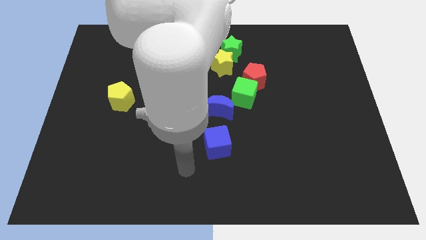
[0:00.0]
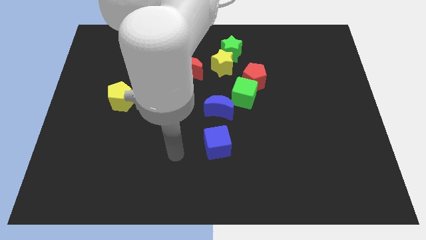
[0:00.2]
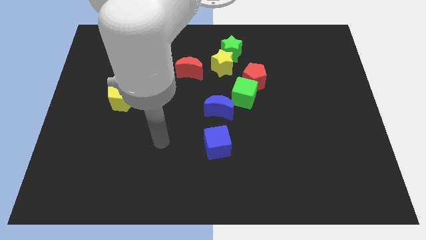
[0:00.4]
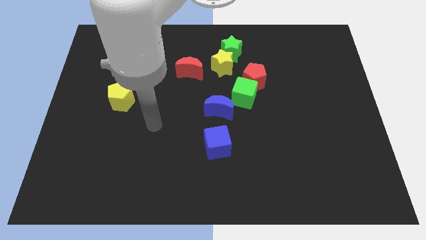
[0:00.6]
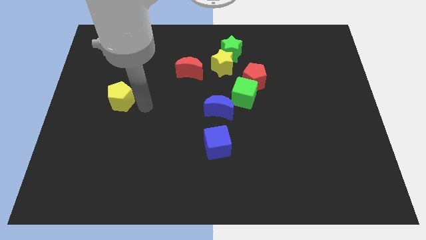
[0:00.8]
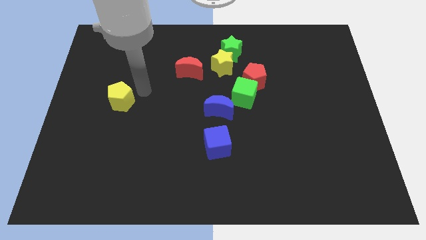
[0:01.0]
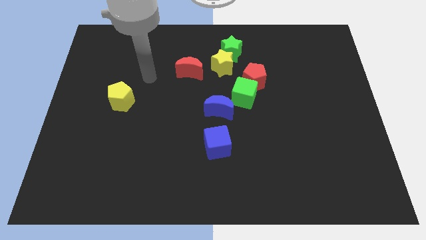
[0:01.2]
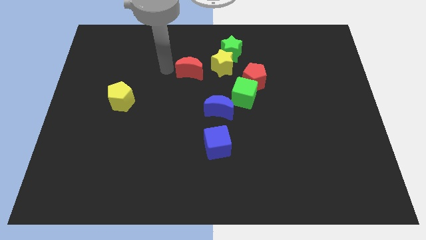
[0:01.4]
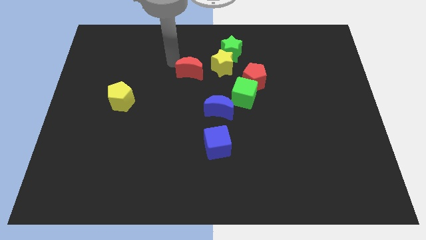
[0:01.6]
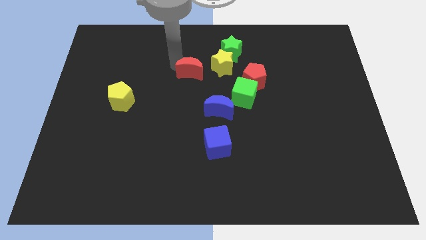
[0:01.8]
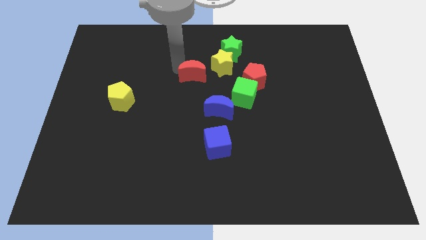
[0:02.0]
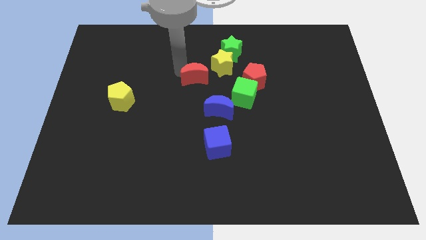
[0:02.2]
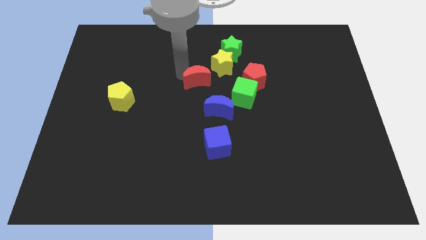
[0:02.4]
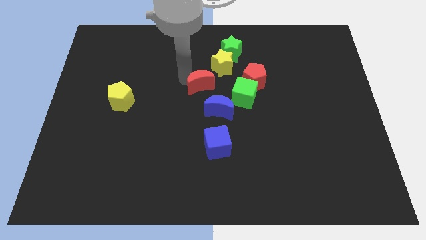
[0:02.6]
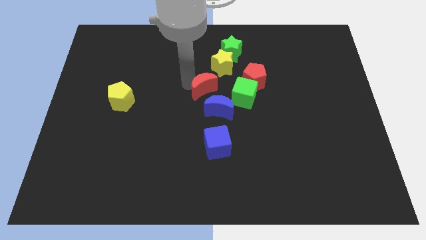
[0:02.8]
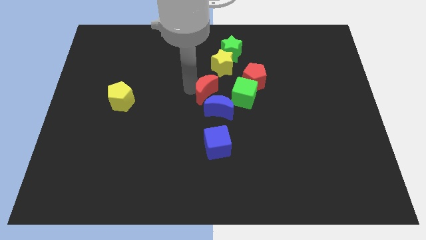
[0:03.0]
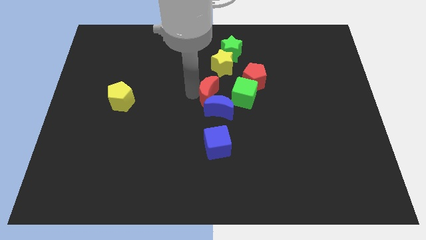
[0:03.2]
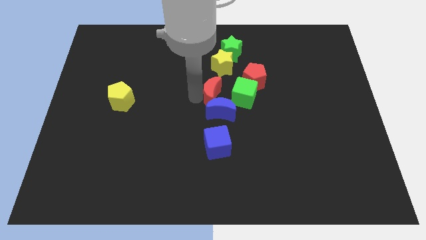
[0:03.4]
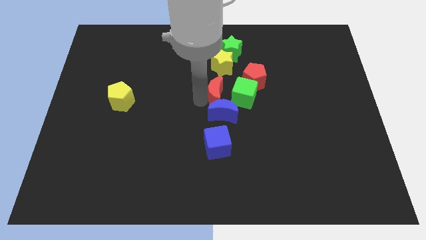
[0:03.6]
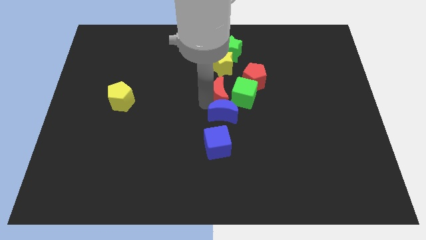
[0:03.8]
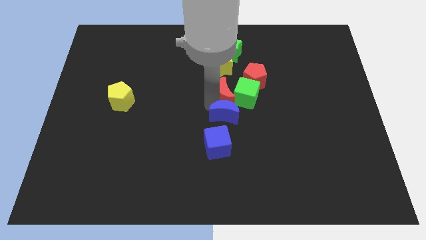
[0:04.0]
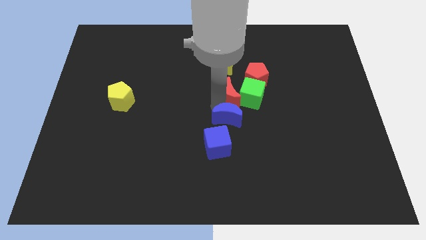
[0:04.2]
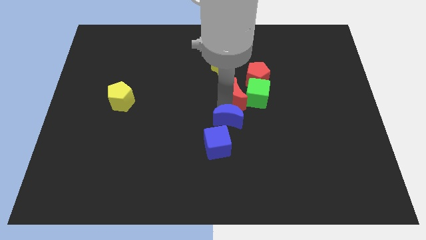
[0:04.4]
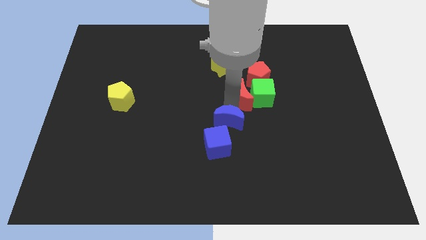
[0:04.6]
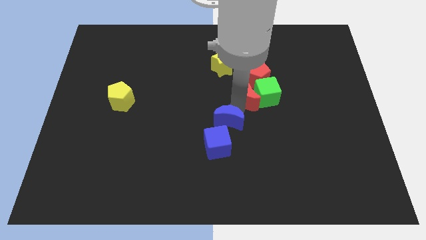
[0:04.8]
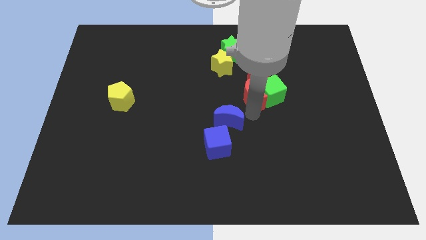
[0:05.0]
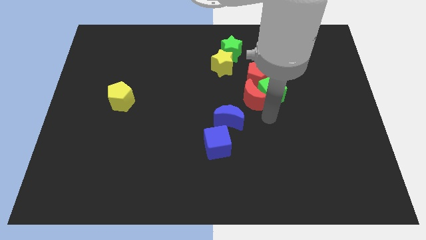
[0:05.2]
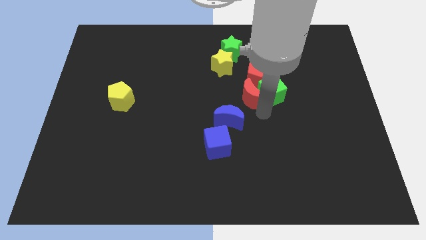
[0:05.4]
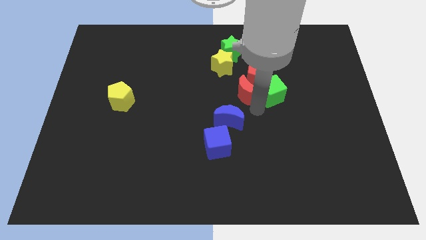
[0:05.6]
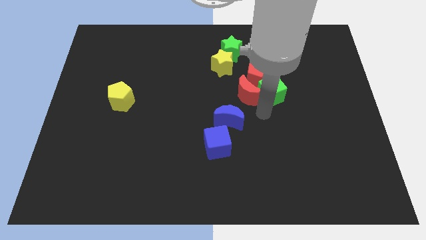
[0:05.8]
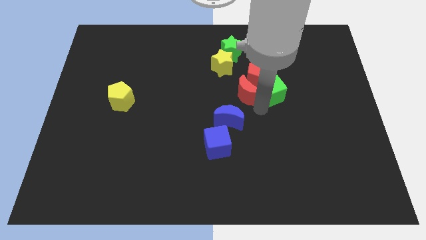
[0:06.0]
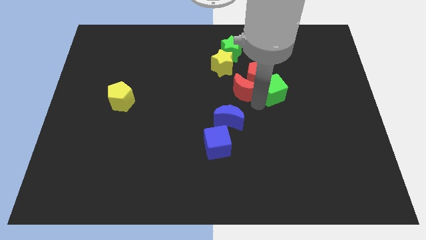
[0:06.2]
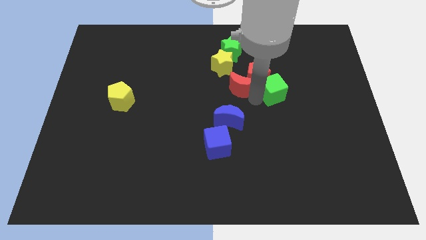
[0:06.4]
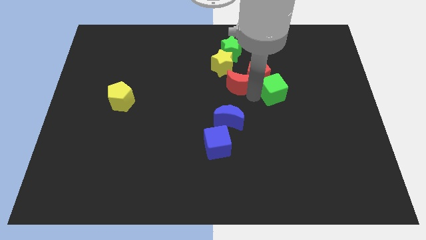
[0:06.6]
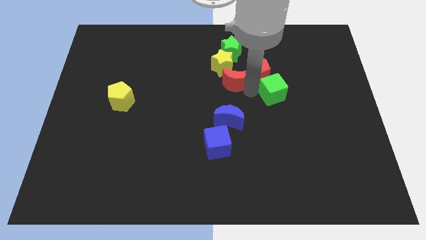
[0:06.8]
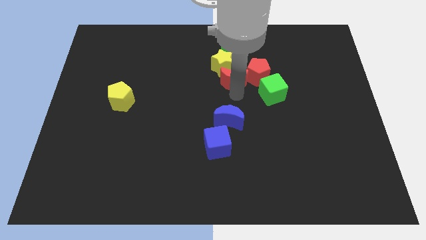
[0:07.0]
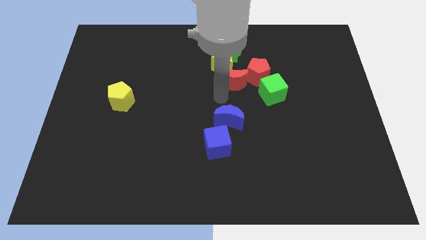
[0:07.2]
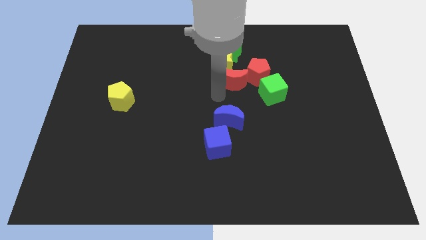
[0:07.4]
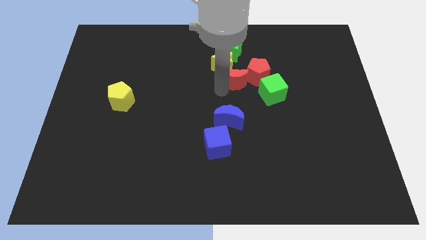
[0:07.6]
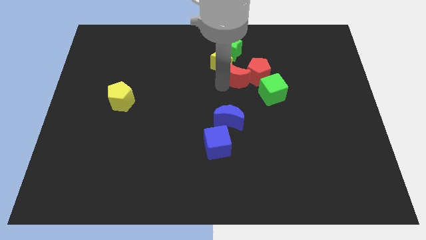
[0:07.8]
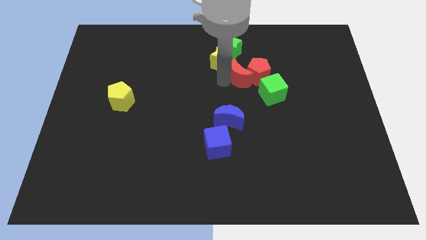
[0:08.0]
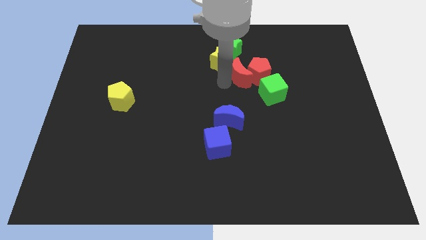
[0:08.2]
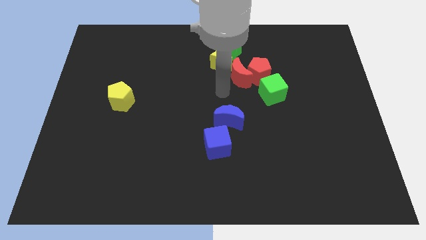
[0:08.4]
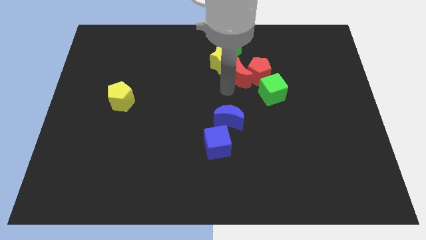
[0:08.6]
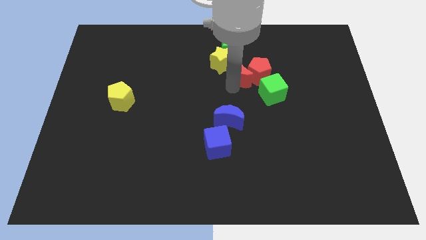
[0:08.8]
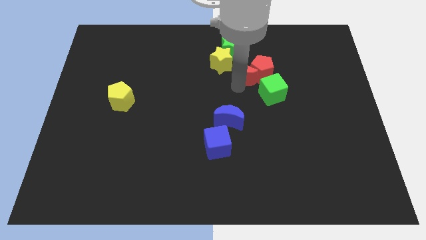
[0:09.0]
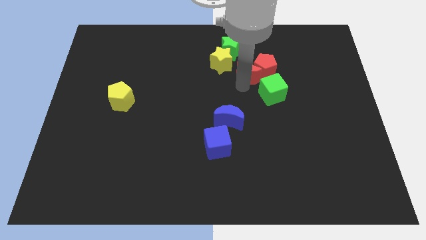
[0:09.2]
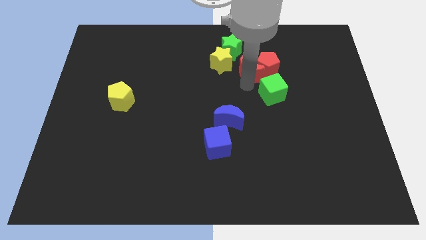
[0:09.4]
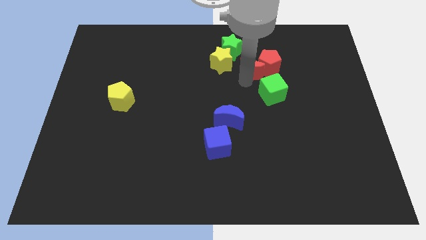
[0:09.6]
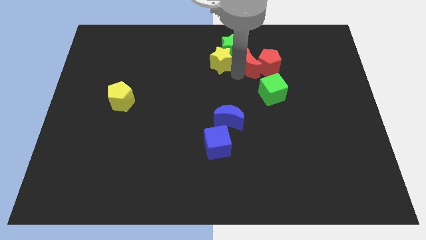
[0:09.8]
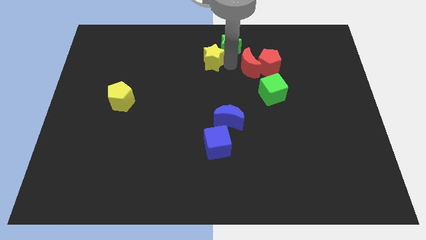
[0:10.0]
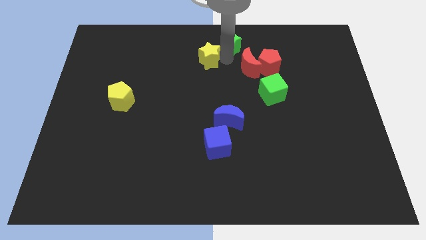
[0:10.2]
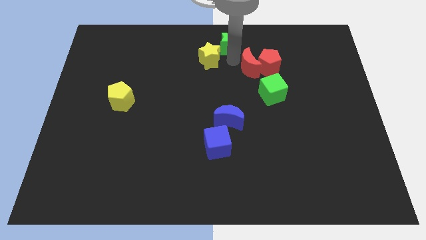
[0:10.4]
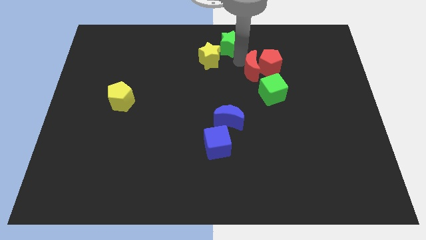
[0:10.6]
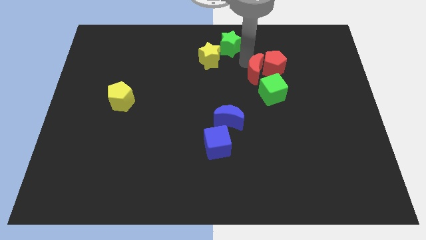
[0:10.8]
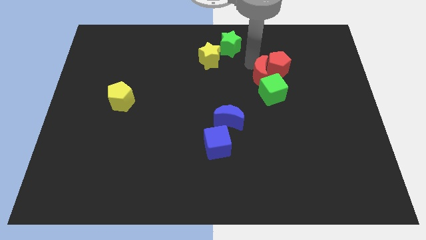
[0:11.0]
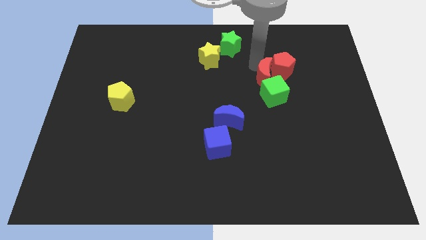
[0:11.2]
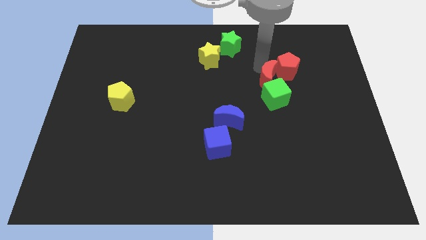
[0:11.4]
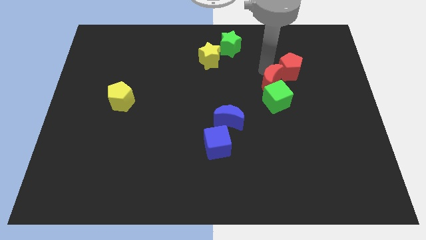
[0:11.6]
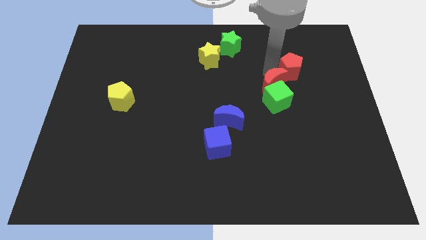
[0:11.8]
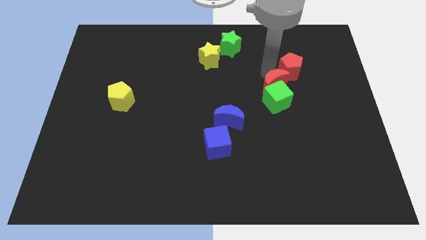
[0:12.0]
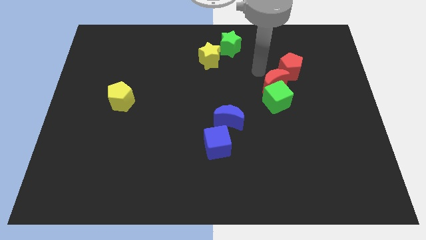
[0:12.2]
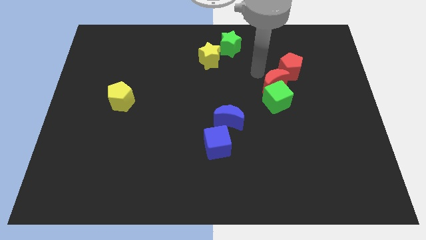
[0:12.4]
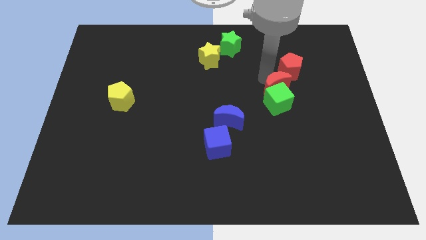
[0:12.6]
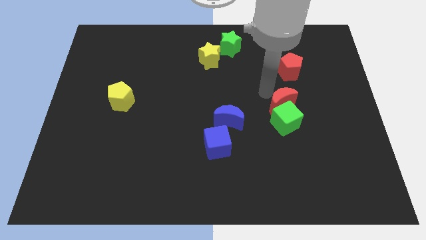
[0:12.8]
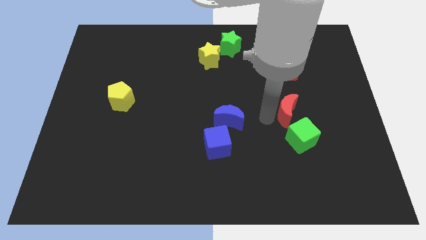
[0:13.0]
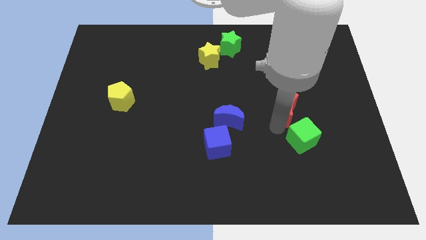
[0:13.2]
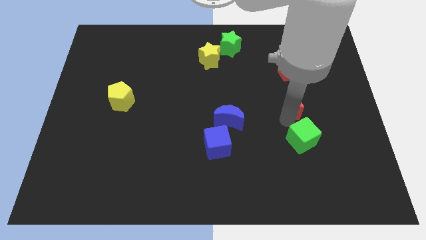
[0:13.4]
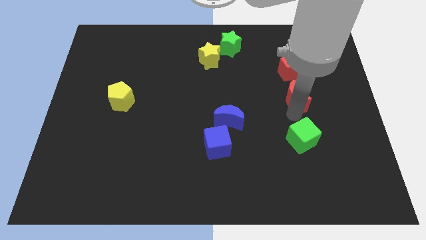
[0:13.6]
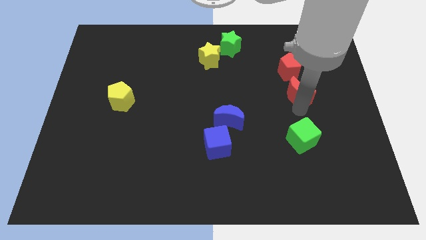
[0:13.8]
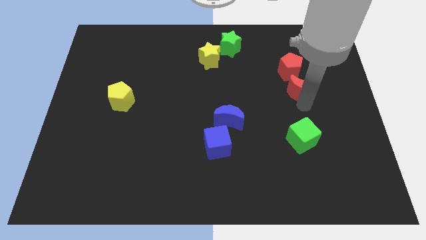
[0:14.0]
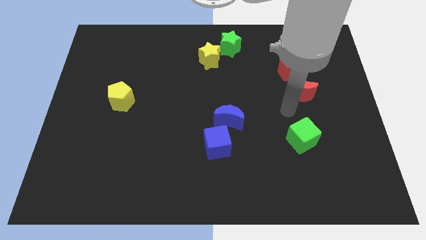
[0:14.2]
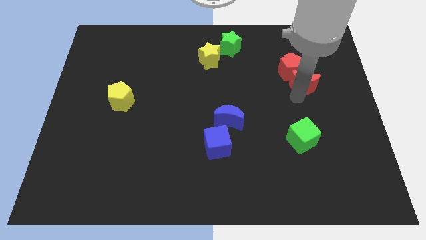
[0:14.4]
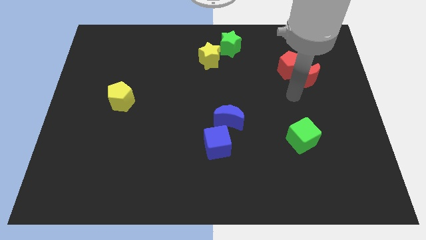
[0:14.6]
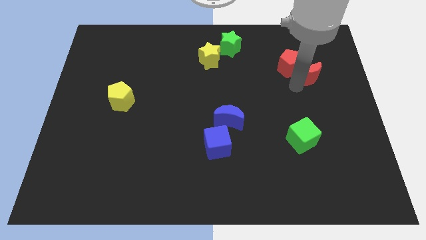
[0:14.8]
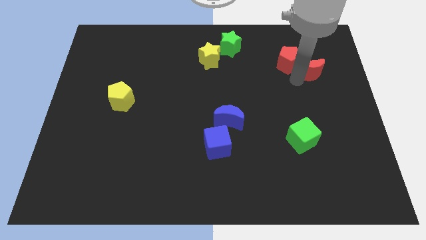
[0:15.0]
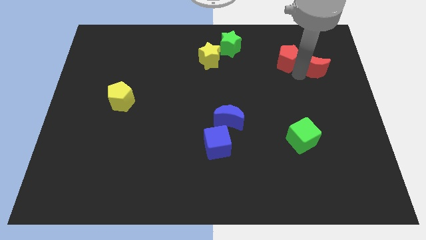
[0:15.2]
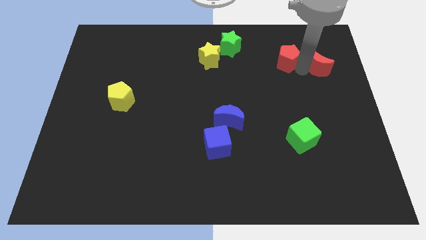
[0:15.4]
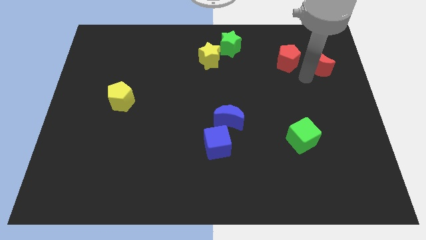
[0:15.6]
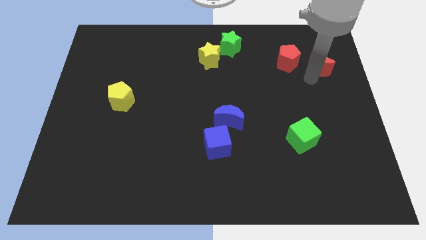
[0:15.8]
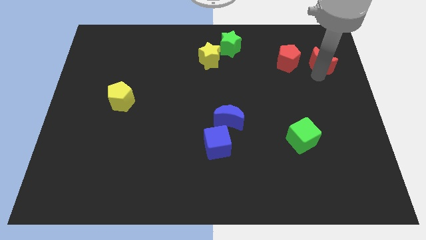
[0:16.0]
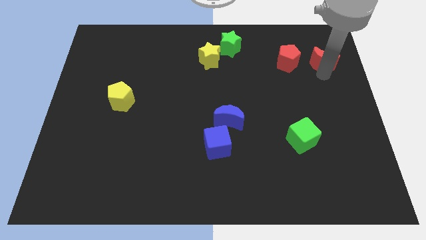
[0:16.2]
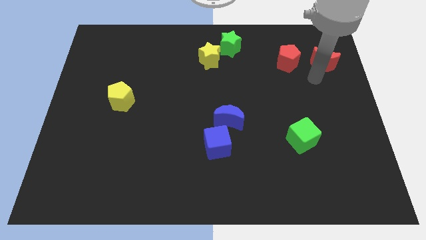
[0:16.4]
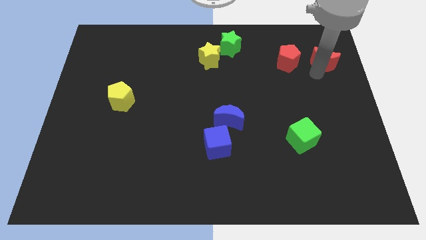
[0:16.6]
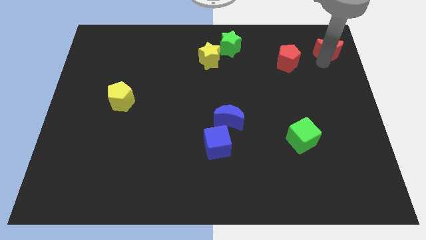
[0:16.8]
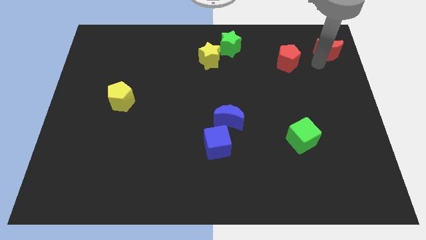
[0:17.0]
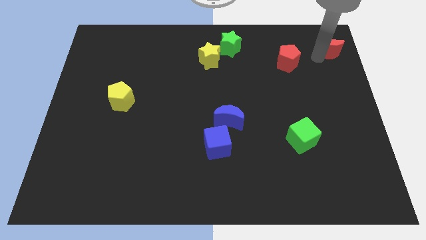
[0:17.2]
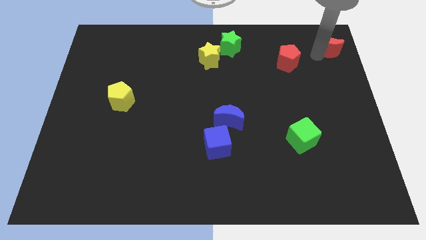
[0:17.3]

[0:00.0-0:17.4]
slide the red moon to the upper right corner
